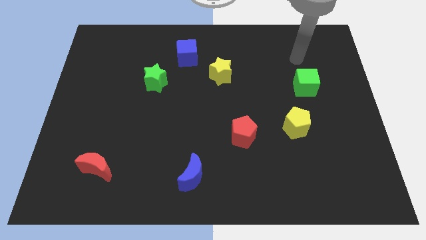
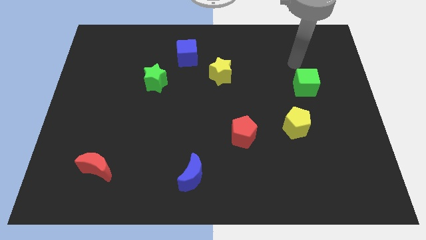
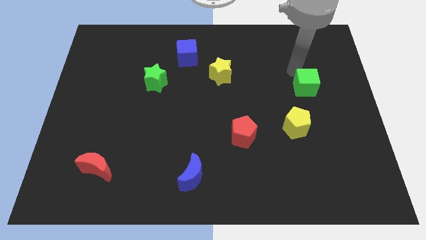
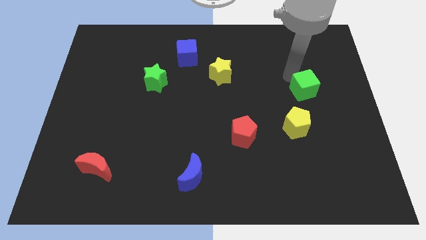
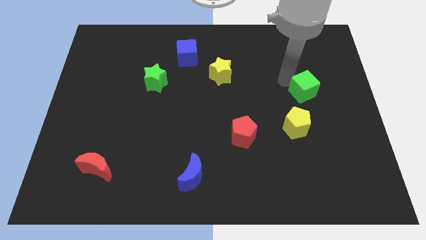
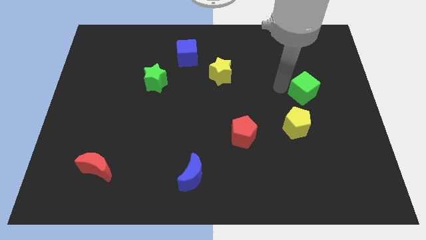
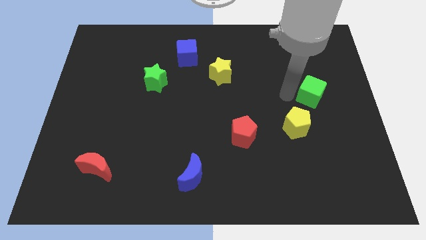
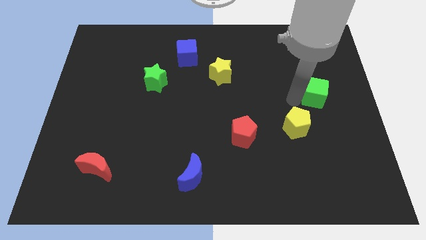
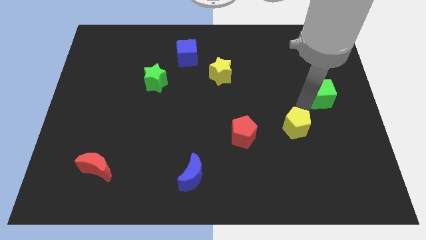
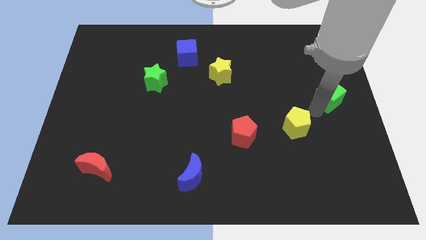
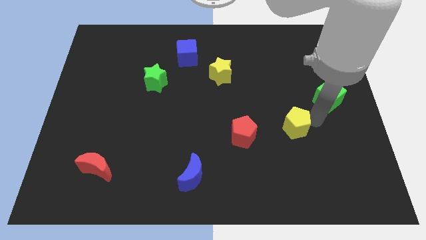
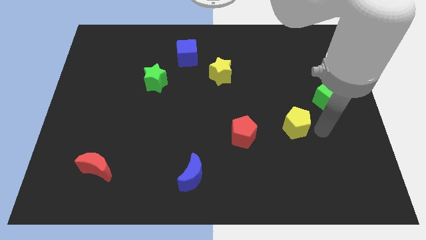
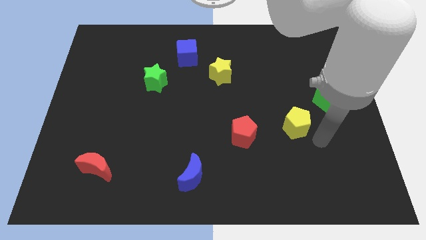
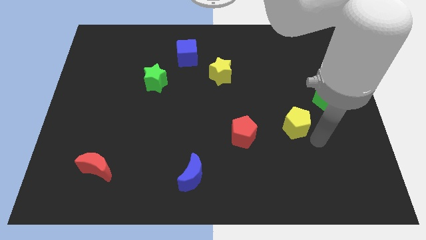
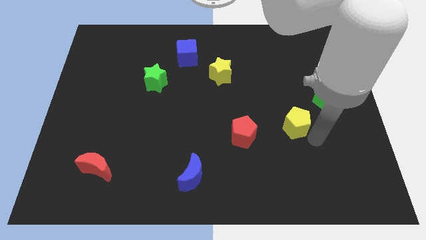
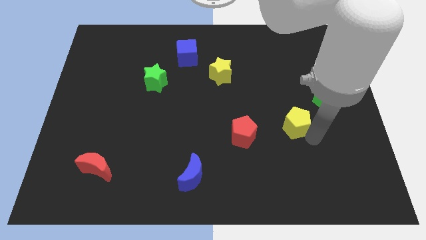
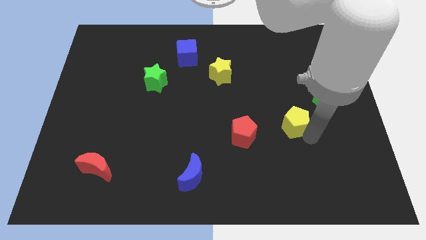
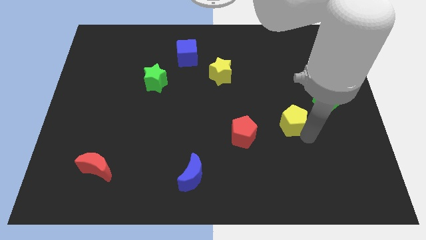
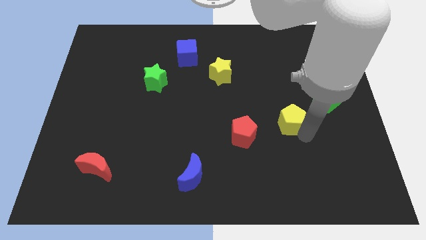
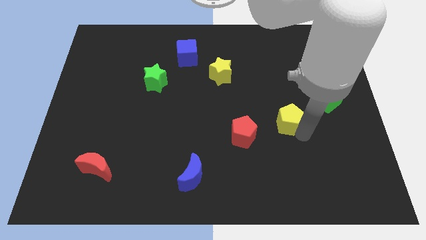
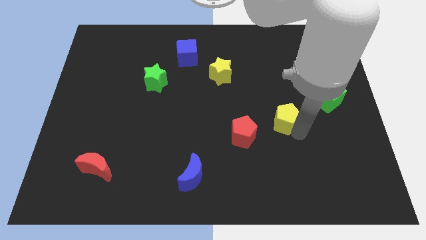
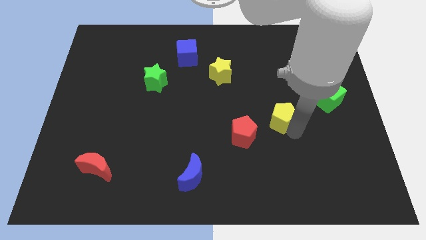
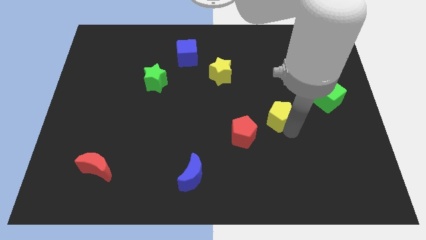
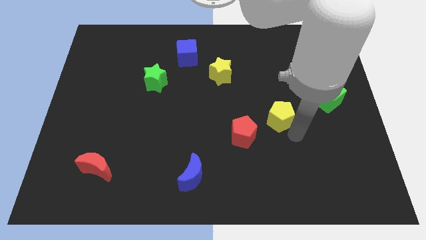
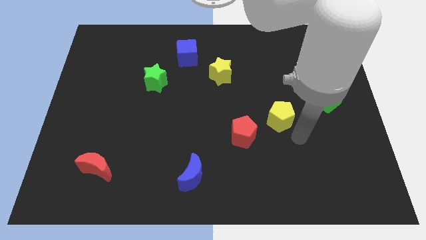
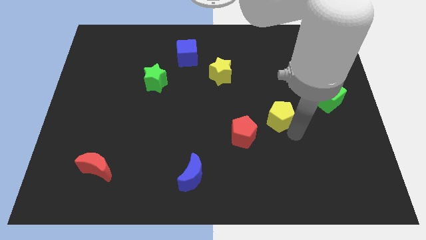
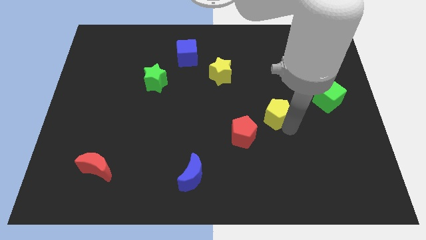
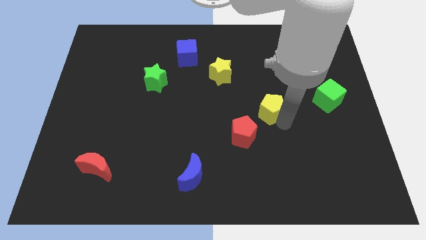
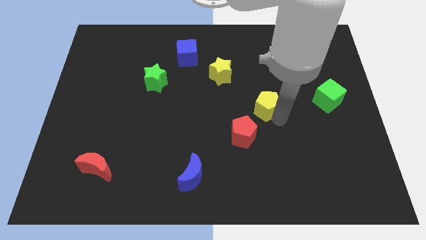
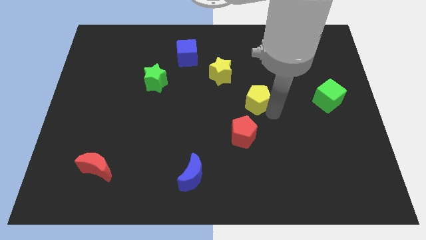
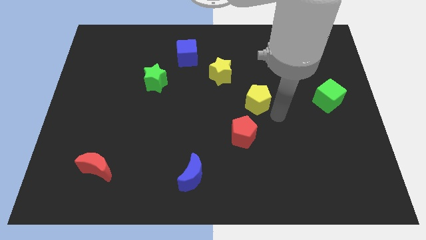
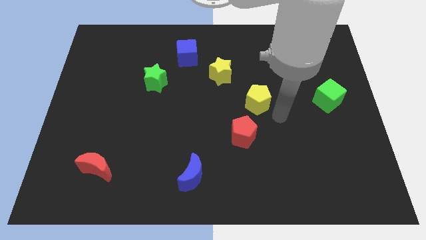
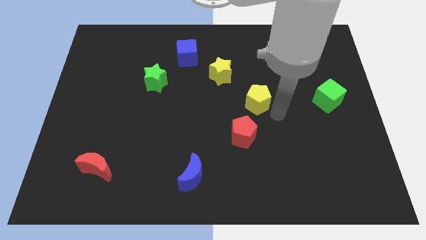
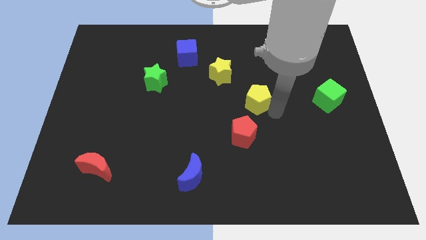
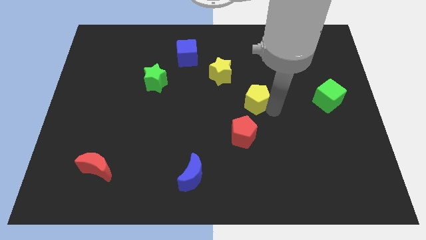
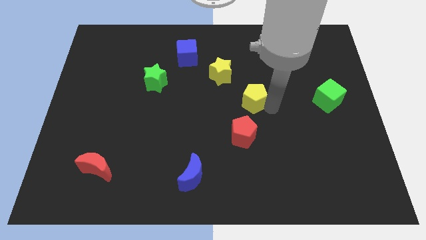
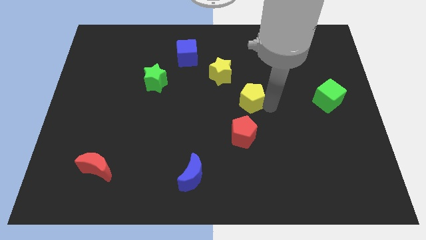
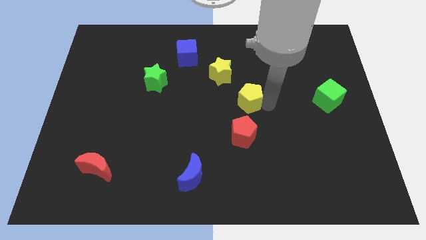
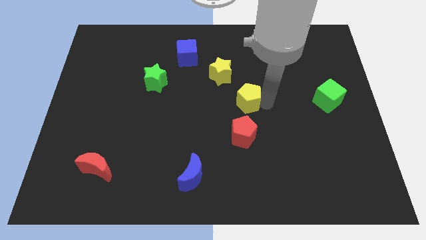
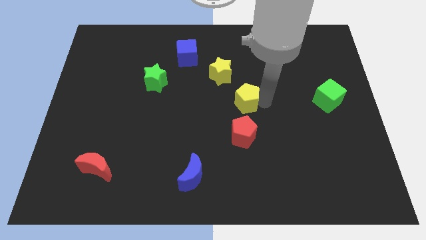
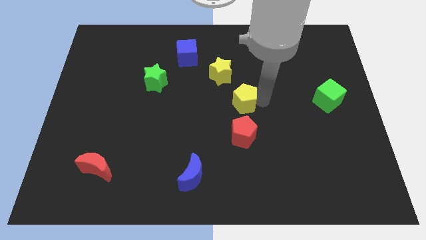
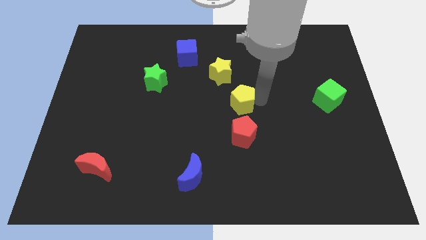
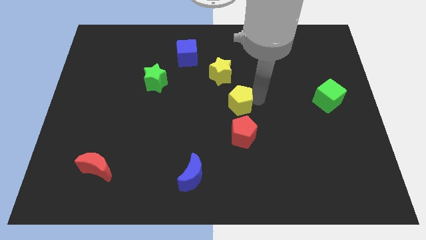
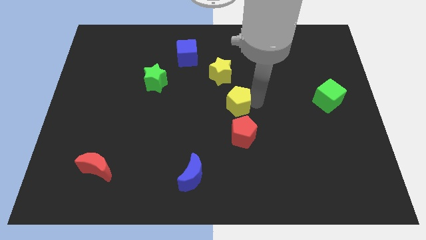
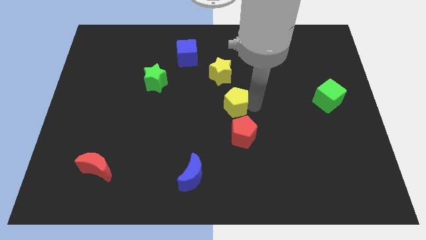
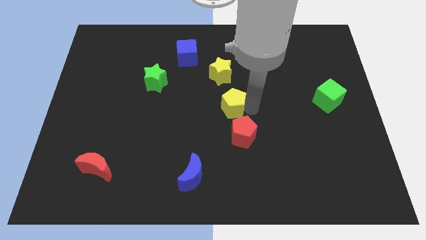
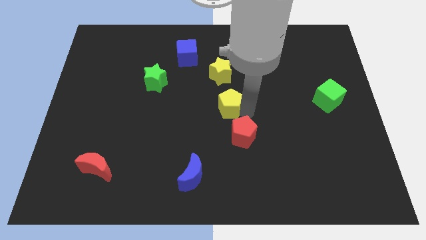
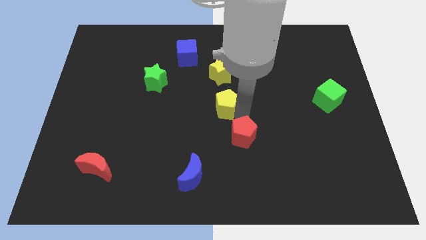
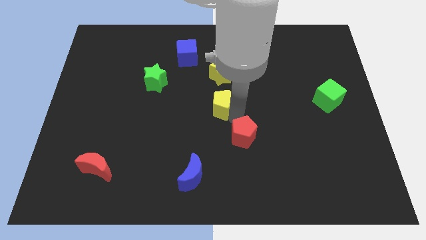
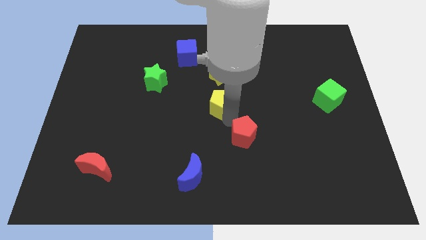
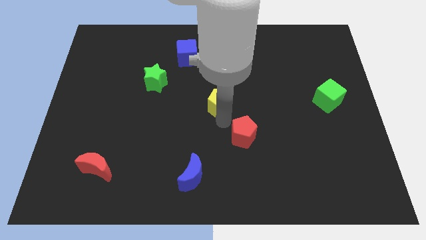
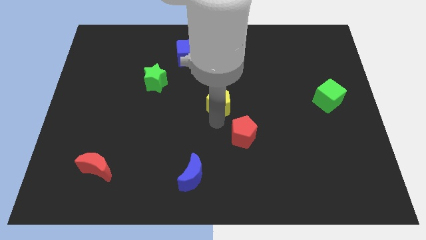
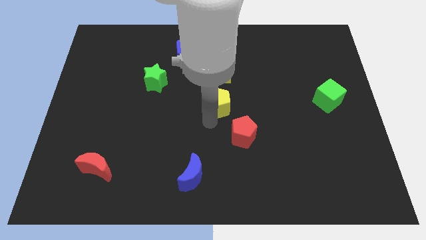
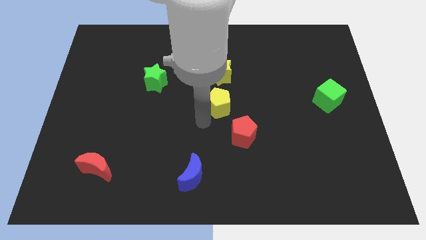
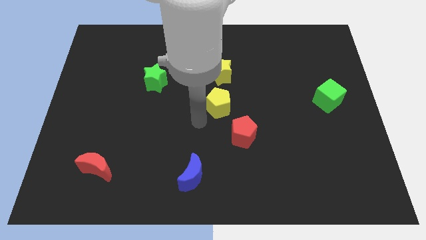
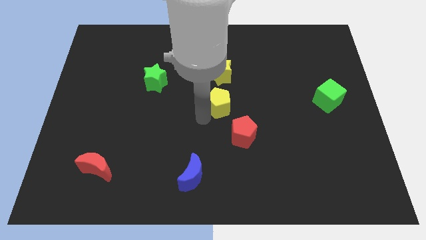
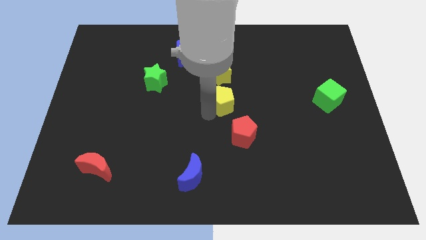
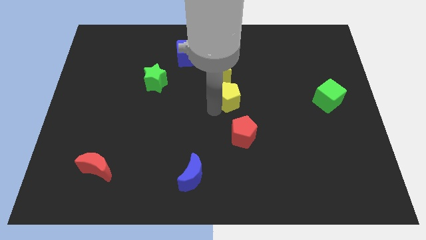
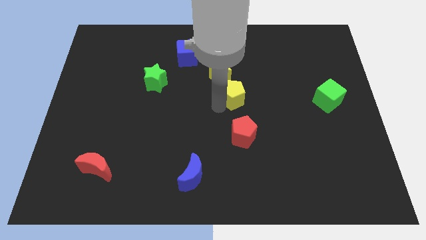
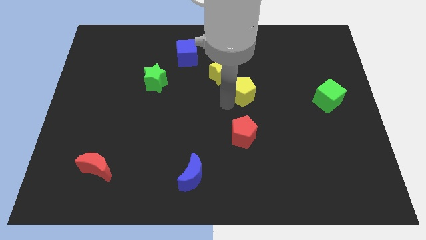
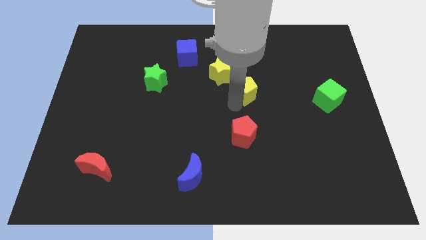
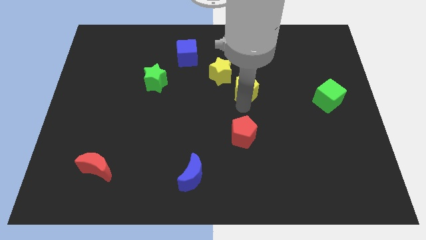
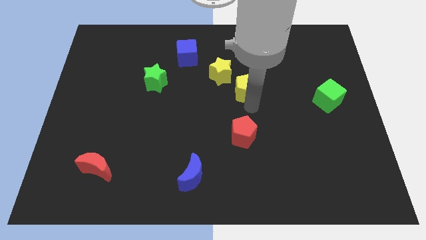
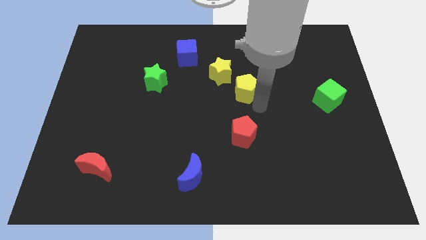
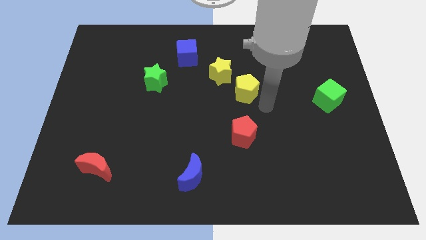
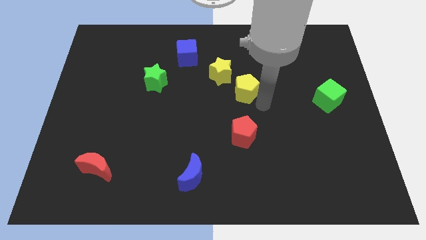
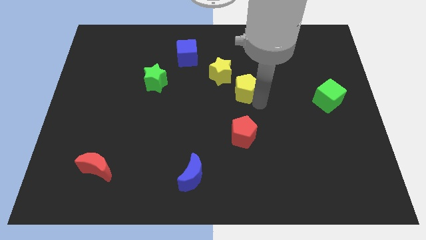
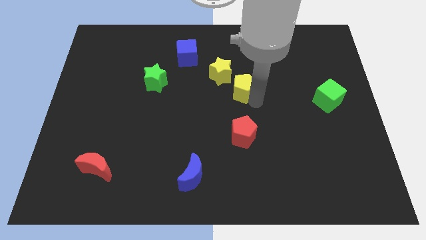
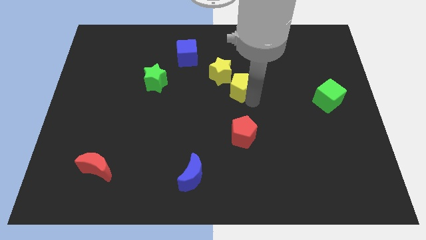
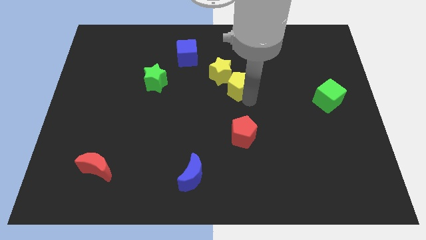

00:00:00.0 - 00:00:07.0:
slide the yellow pentagon close to the yellow star

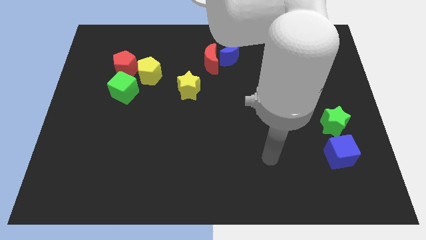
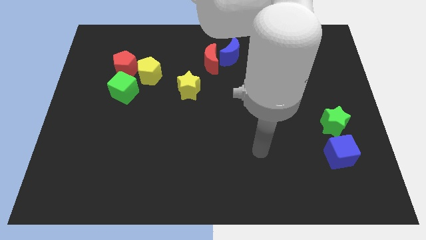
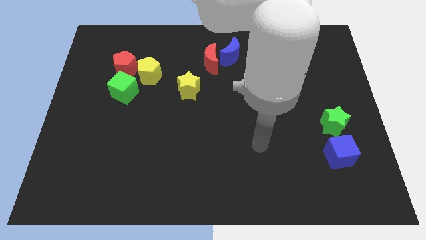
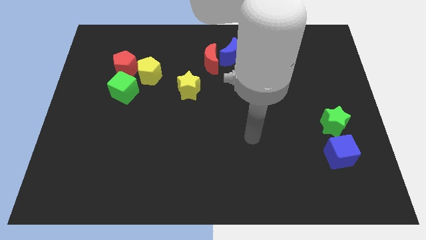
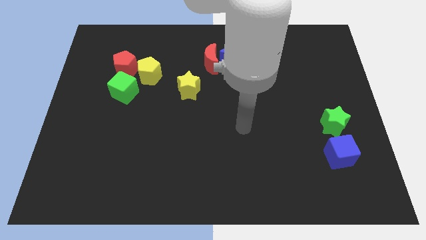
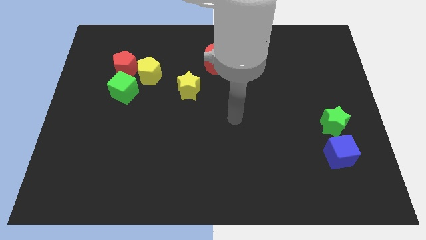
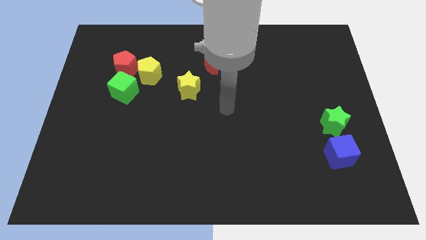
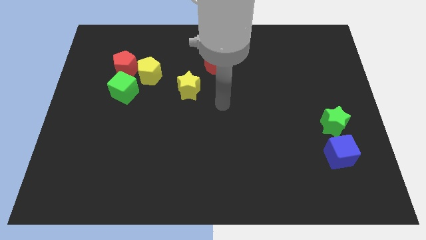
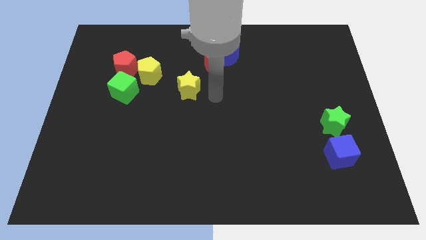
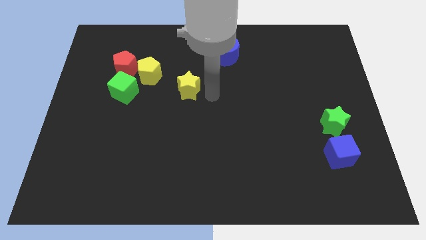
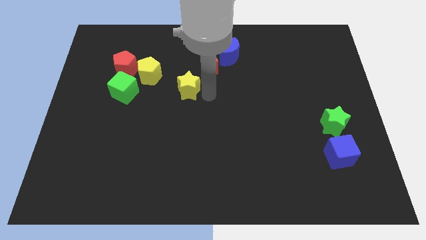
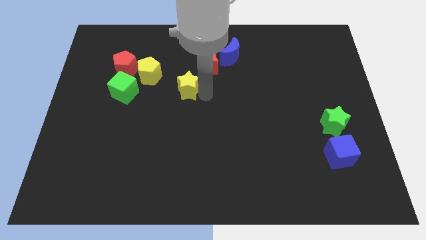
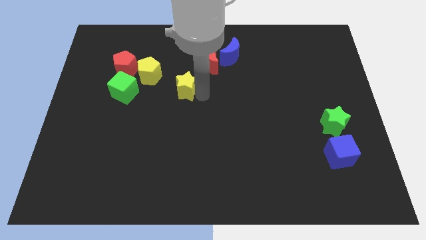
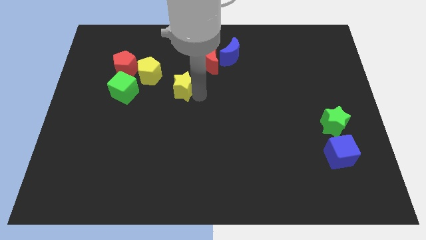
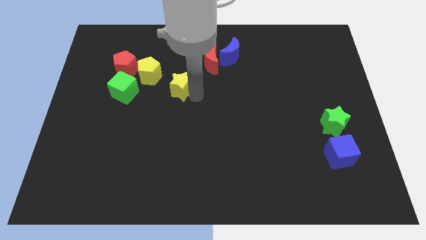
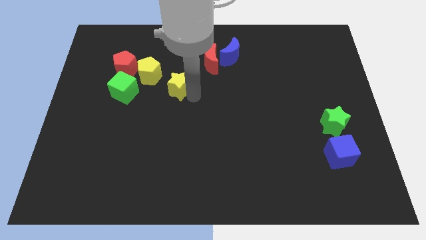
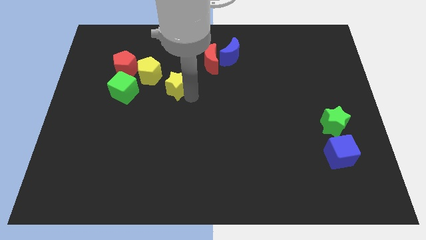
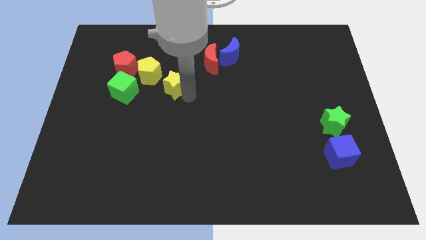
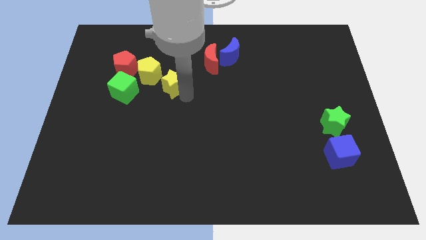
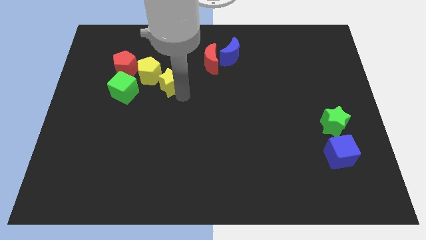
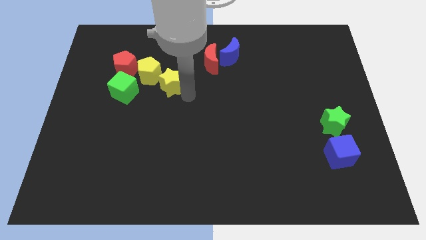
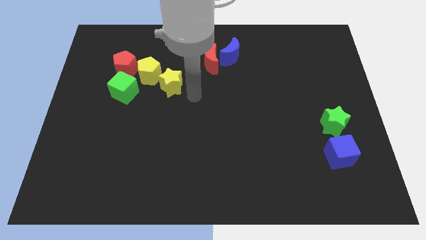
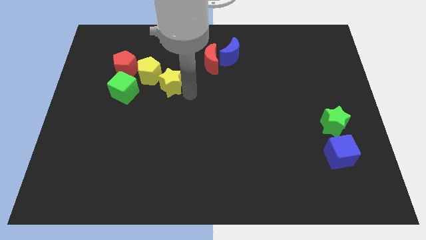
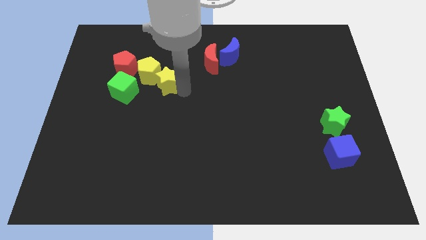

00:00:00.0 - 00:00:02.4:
push the yellow star next to the yellow pentagon
